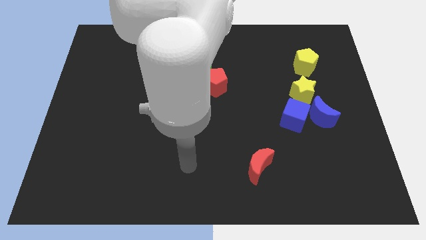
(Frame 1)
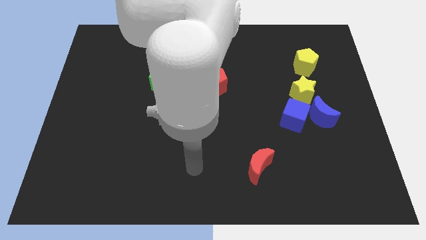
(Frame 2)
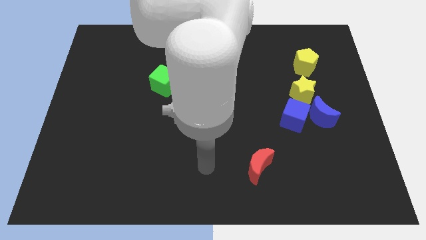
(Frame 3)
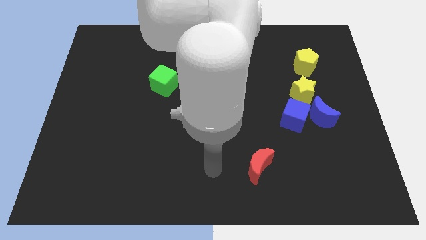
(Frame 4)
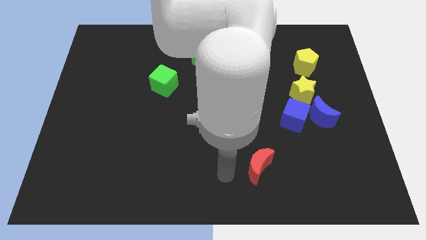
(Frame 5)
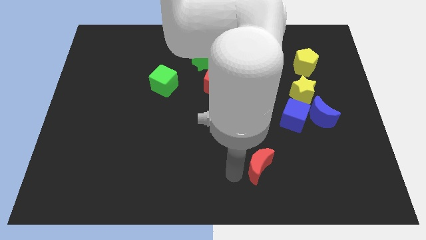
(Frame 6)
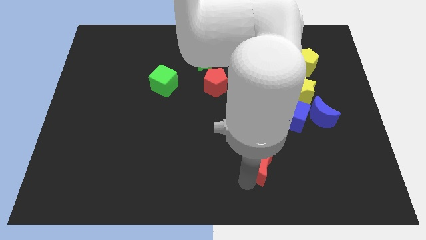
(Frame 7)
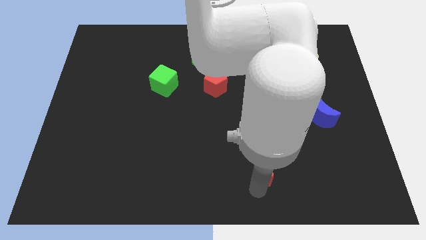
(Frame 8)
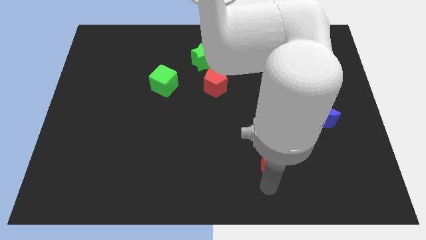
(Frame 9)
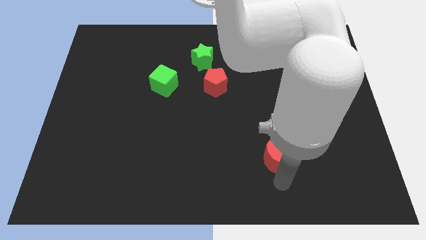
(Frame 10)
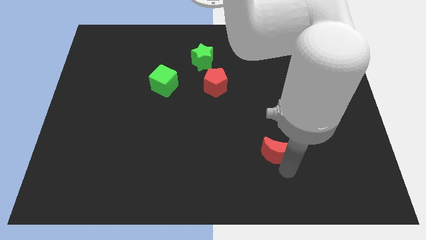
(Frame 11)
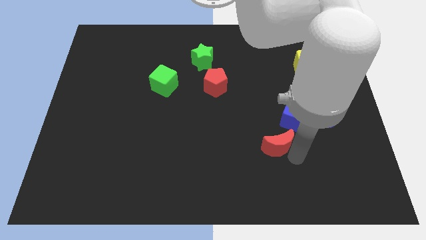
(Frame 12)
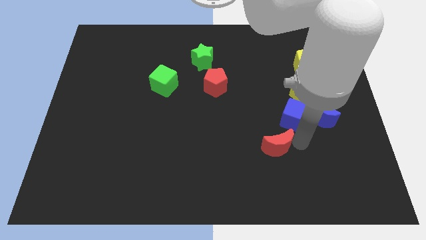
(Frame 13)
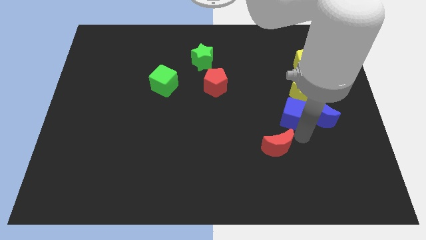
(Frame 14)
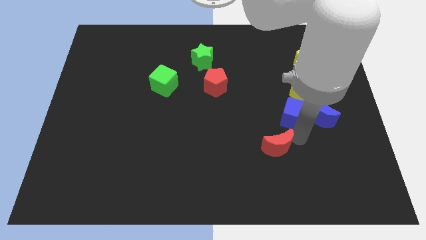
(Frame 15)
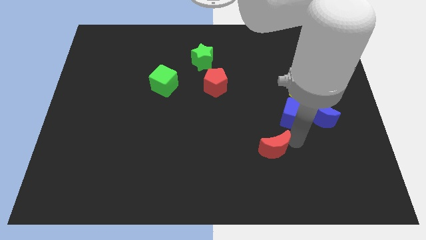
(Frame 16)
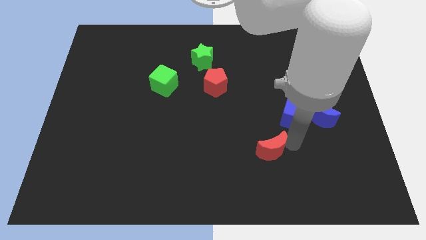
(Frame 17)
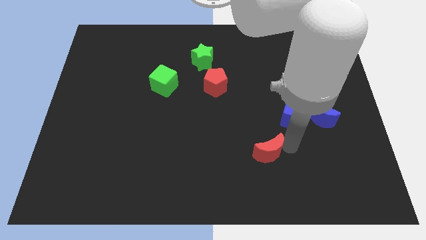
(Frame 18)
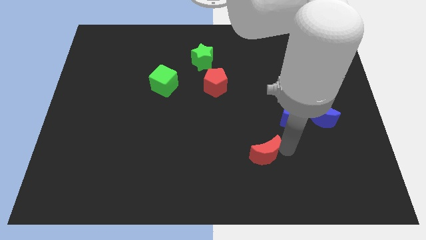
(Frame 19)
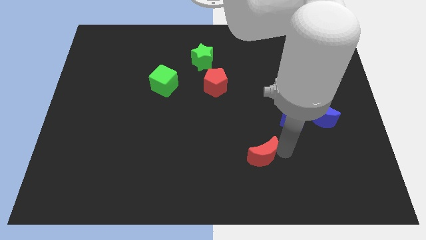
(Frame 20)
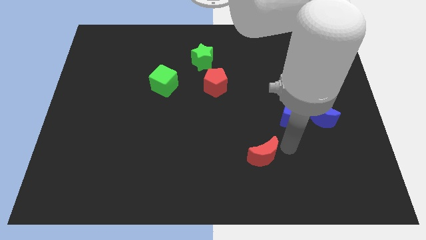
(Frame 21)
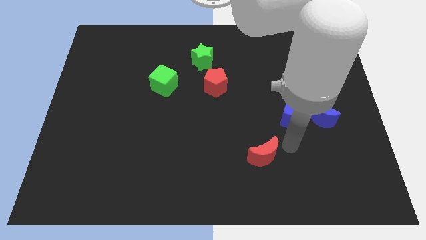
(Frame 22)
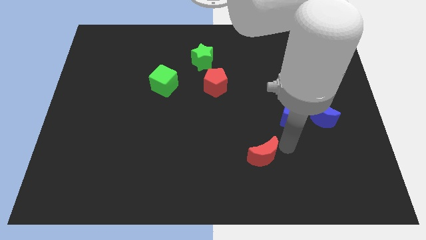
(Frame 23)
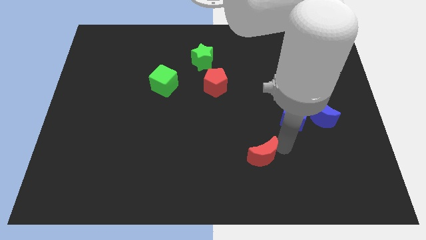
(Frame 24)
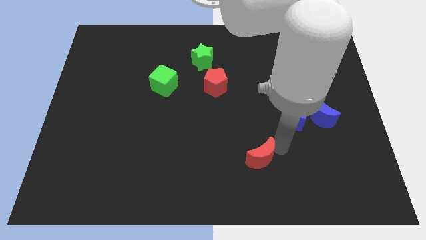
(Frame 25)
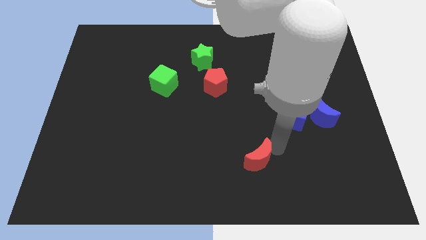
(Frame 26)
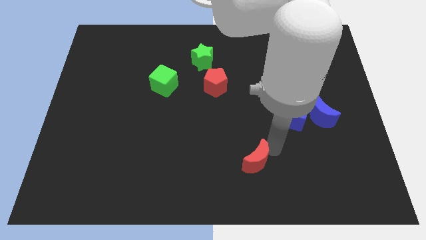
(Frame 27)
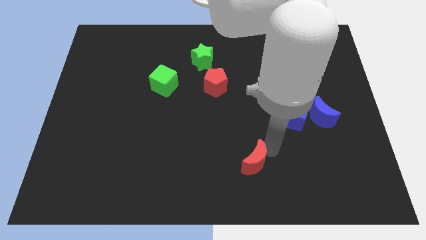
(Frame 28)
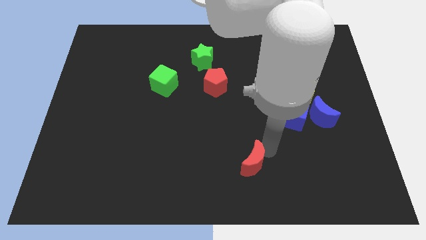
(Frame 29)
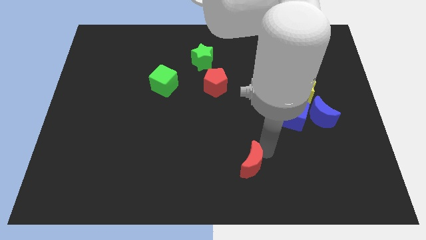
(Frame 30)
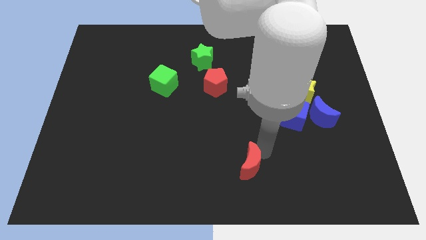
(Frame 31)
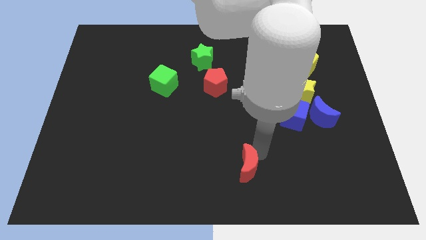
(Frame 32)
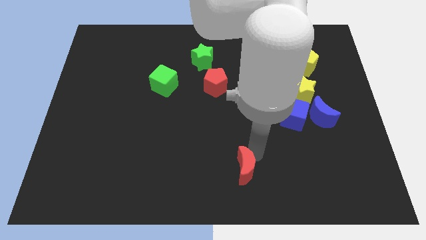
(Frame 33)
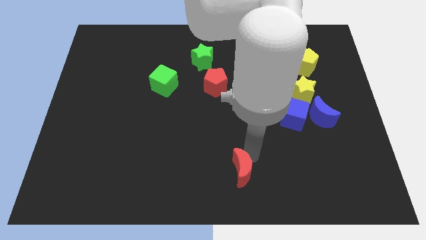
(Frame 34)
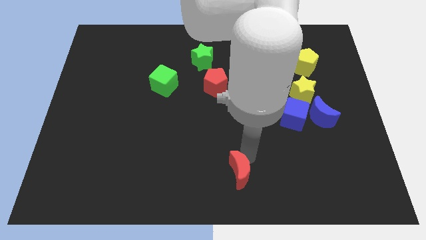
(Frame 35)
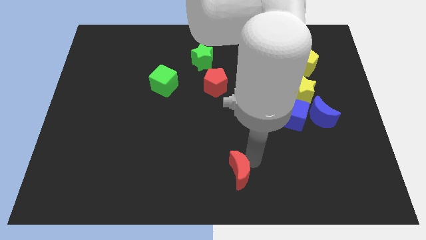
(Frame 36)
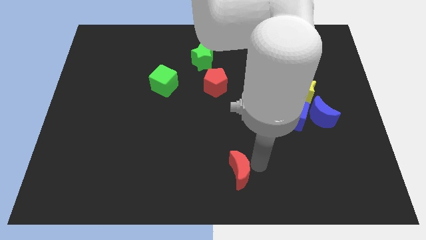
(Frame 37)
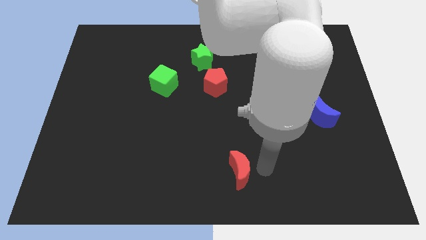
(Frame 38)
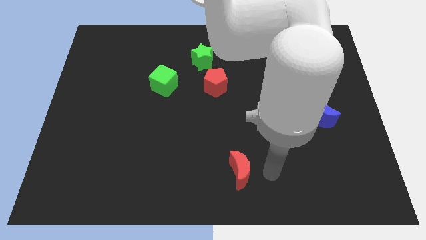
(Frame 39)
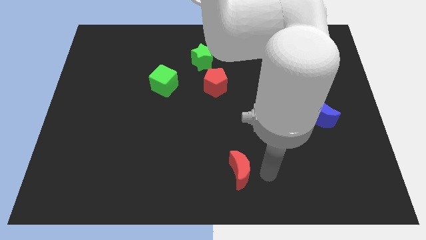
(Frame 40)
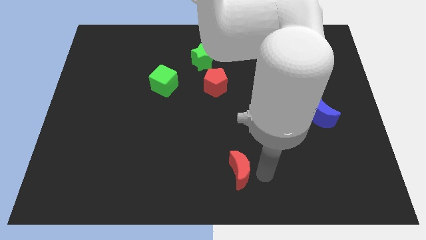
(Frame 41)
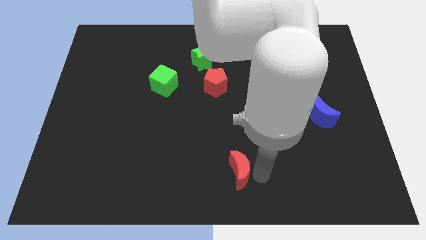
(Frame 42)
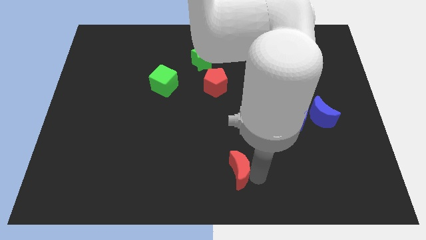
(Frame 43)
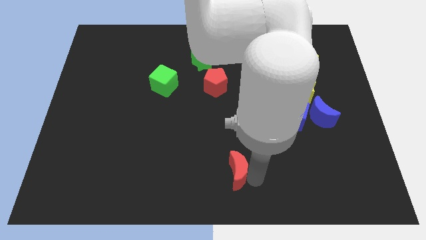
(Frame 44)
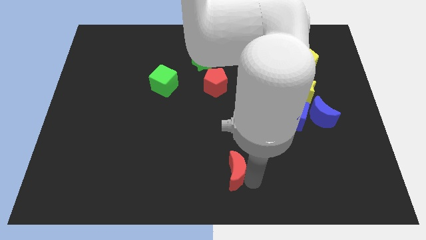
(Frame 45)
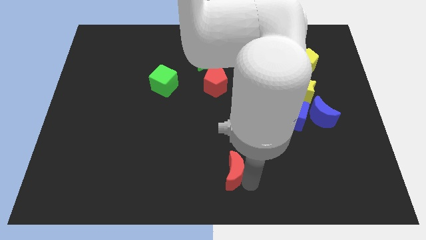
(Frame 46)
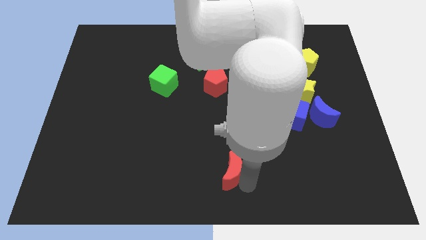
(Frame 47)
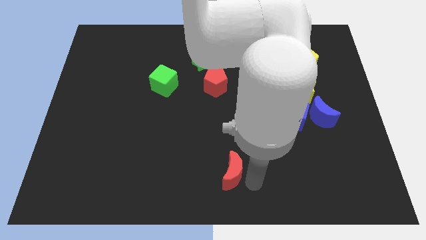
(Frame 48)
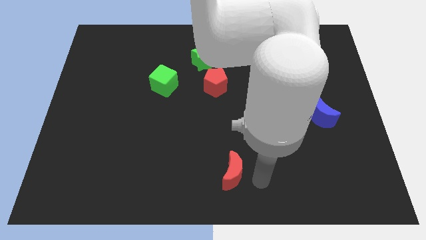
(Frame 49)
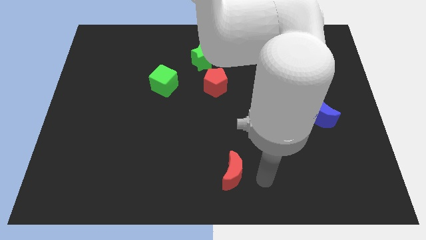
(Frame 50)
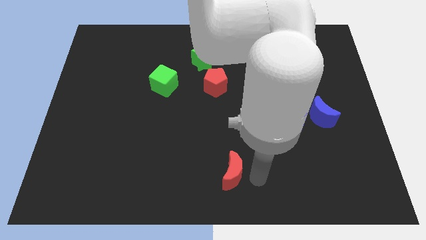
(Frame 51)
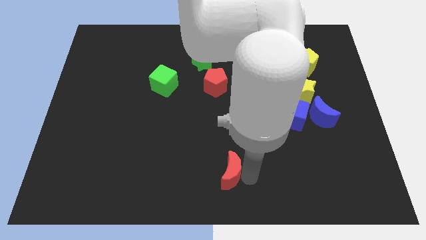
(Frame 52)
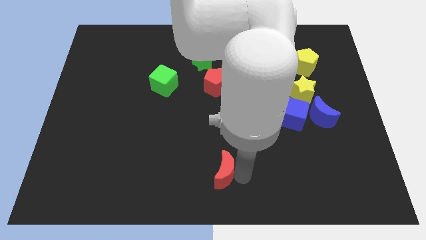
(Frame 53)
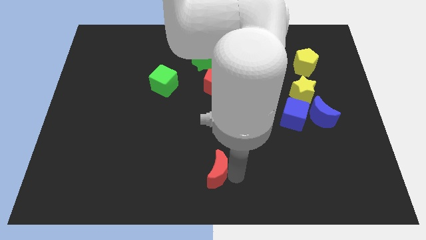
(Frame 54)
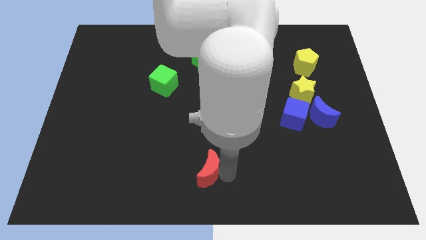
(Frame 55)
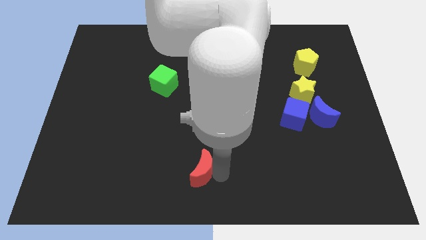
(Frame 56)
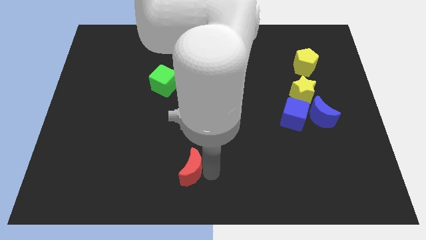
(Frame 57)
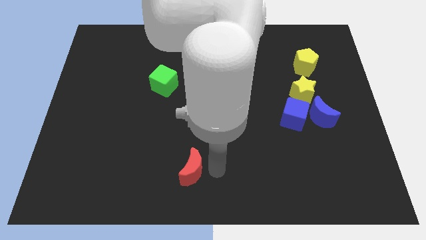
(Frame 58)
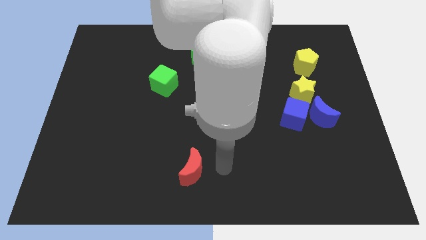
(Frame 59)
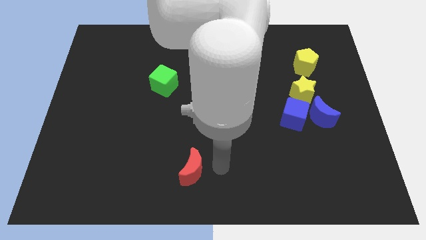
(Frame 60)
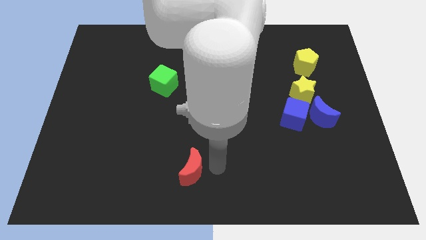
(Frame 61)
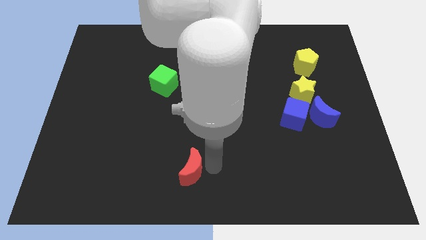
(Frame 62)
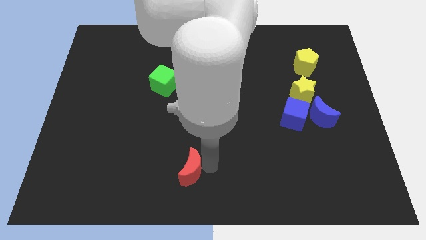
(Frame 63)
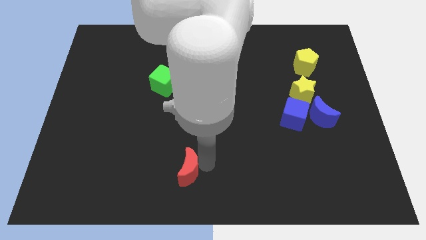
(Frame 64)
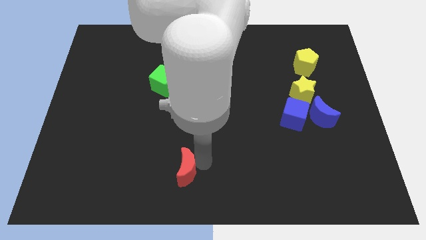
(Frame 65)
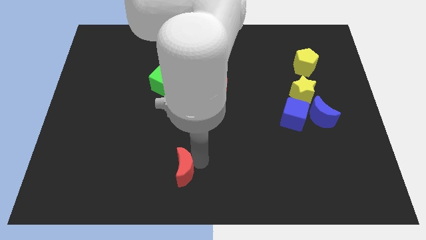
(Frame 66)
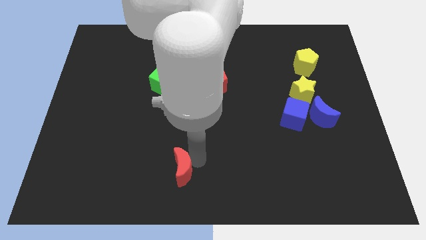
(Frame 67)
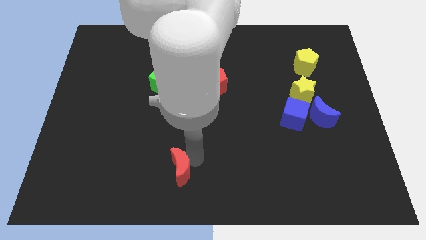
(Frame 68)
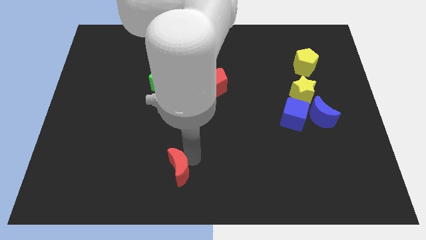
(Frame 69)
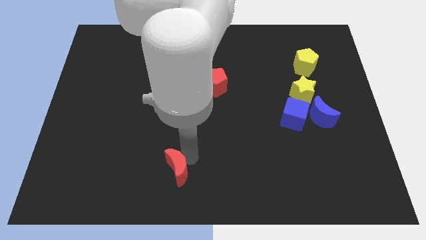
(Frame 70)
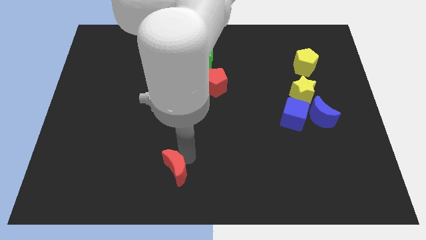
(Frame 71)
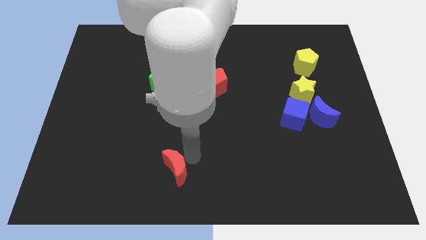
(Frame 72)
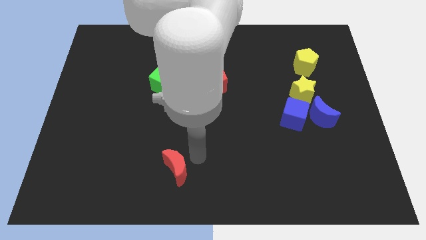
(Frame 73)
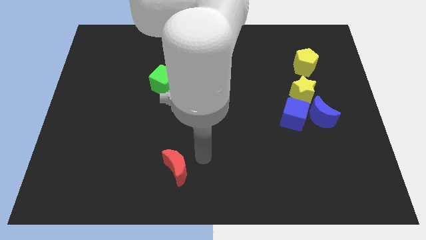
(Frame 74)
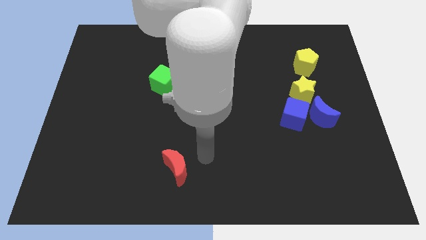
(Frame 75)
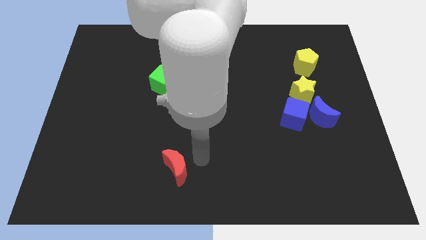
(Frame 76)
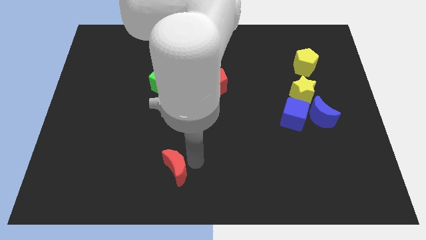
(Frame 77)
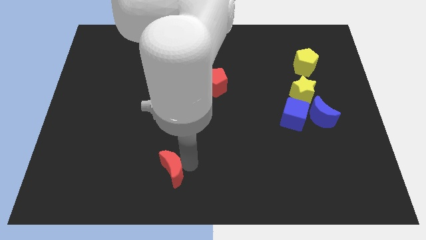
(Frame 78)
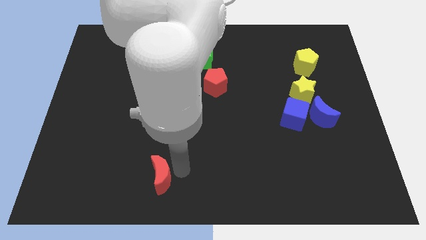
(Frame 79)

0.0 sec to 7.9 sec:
move the red moon left
